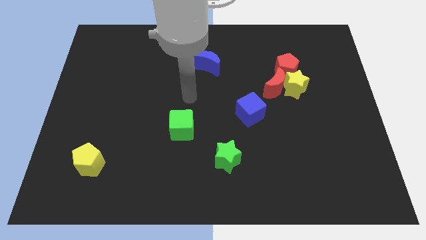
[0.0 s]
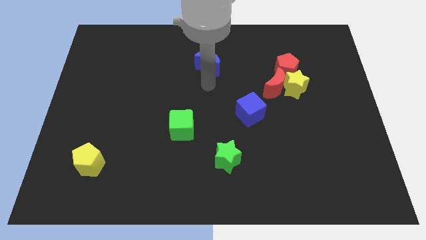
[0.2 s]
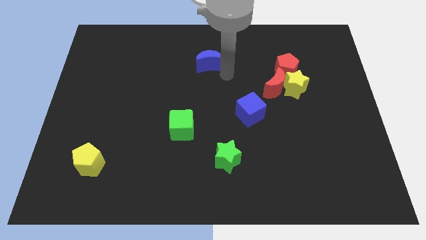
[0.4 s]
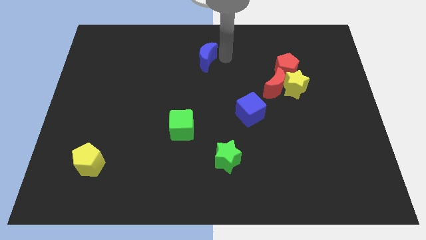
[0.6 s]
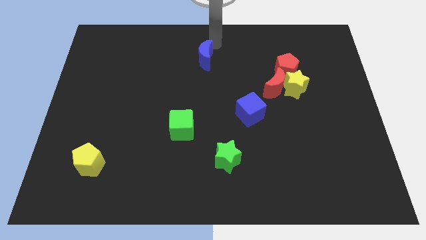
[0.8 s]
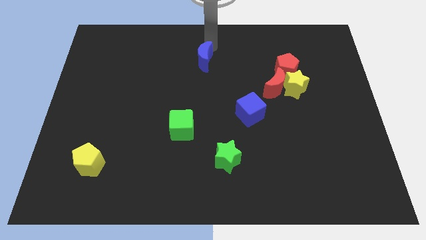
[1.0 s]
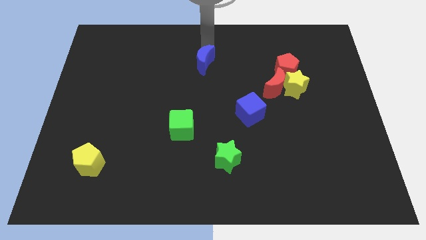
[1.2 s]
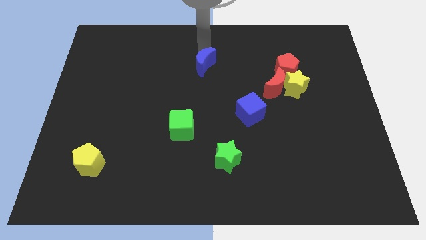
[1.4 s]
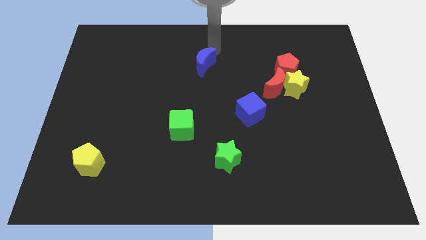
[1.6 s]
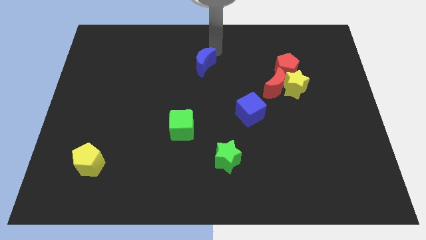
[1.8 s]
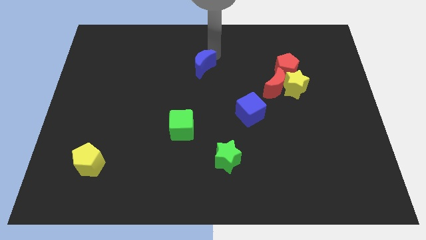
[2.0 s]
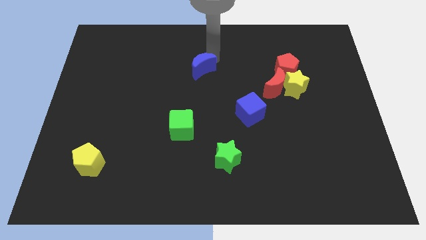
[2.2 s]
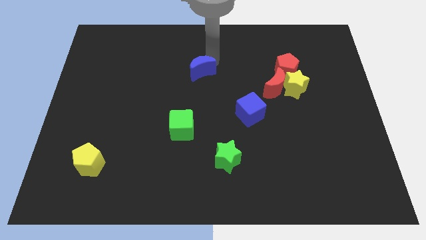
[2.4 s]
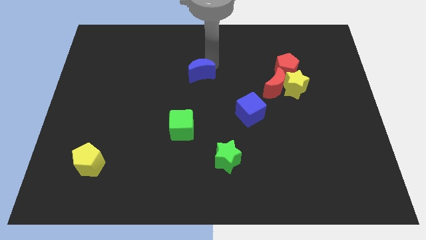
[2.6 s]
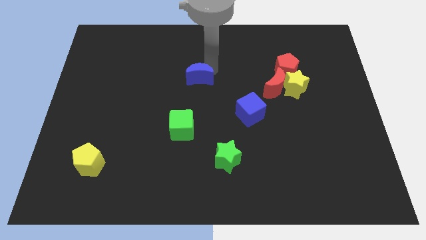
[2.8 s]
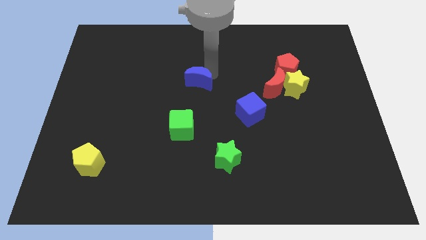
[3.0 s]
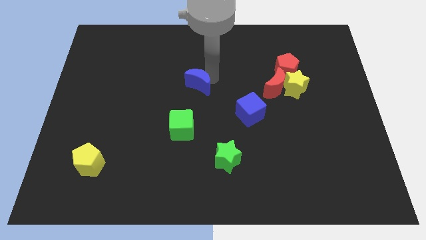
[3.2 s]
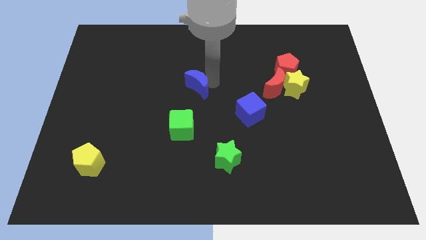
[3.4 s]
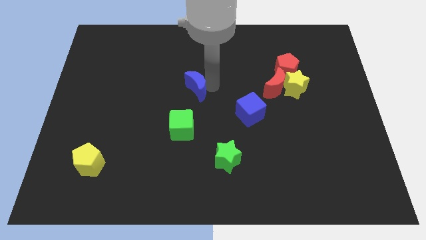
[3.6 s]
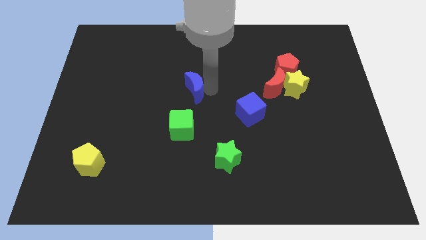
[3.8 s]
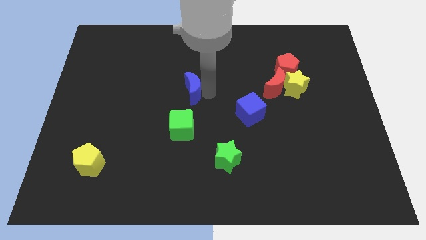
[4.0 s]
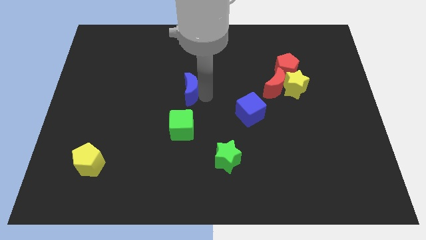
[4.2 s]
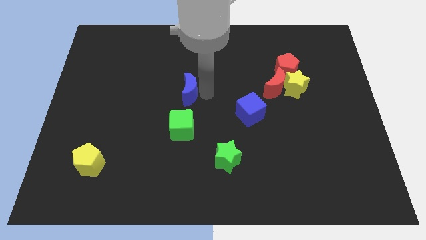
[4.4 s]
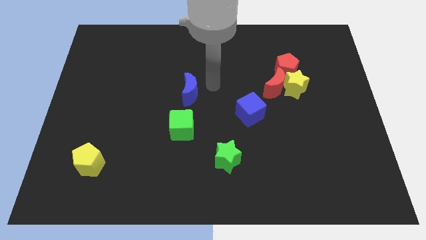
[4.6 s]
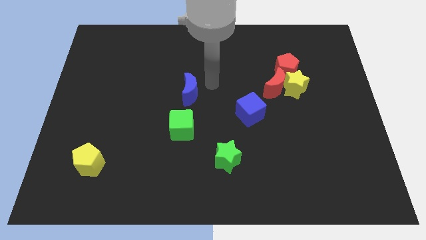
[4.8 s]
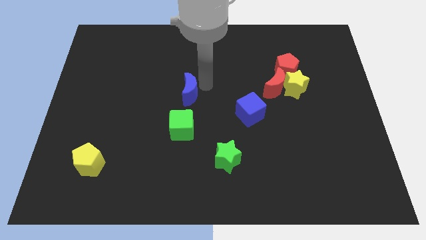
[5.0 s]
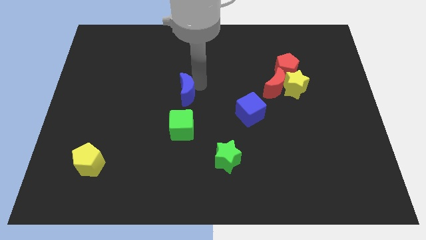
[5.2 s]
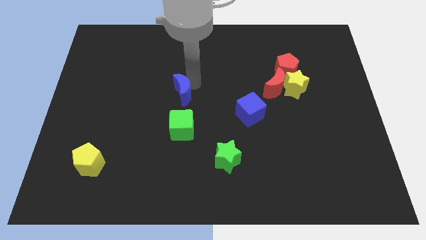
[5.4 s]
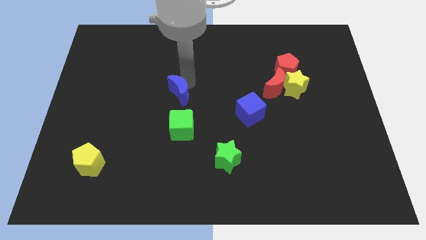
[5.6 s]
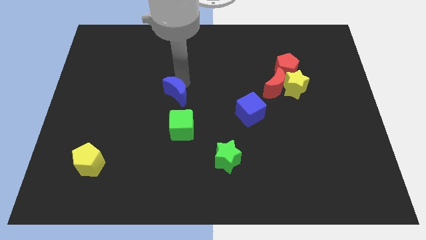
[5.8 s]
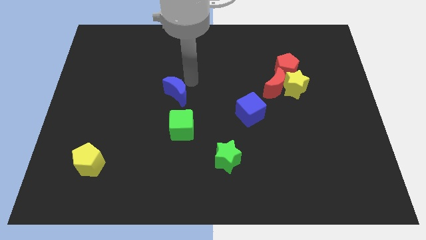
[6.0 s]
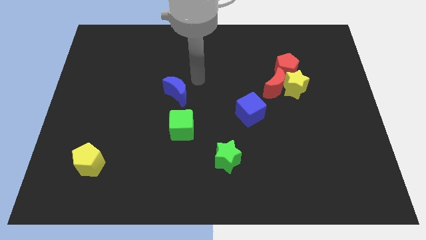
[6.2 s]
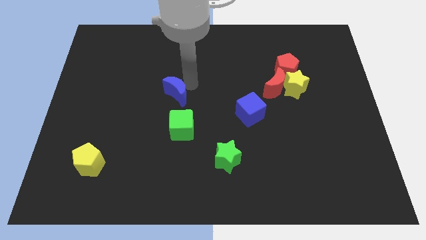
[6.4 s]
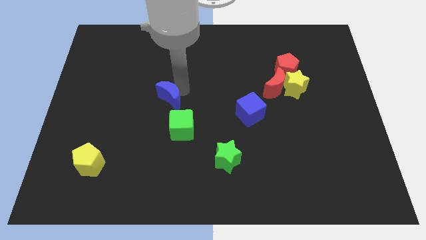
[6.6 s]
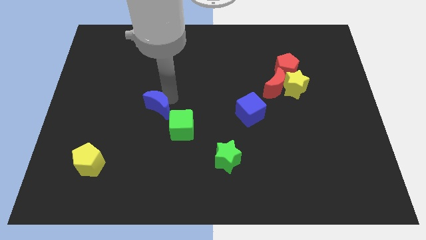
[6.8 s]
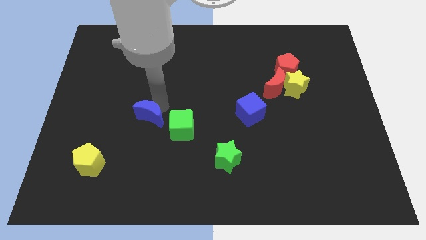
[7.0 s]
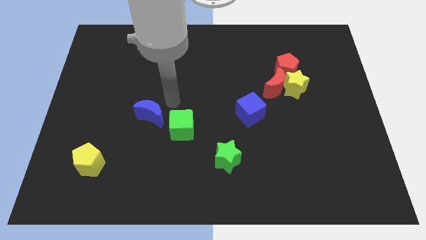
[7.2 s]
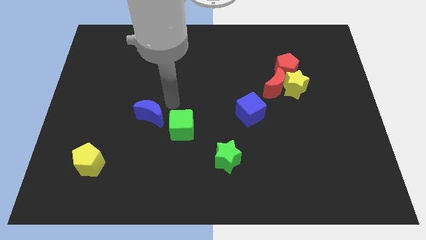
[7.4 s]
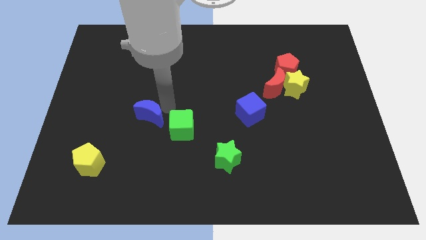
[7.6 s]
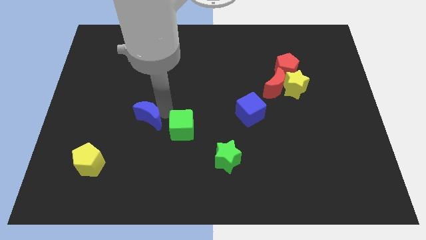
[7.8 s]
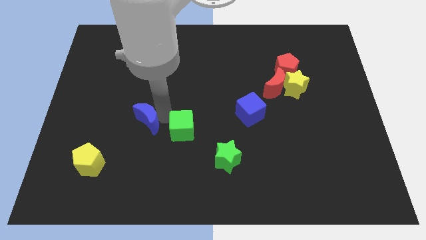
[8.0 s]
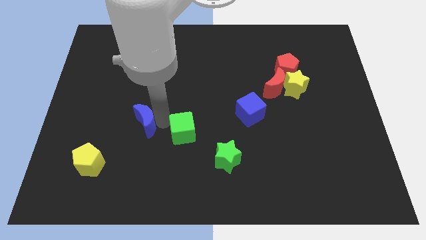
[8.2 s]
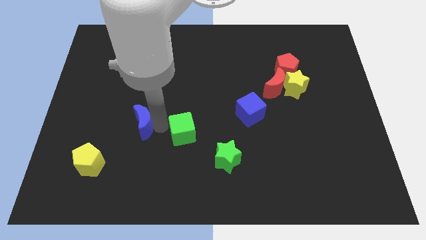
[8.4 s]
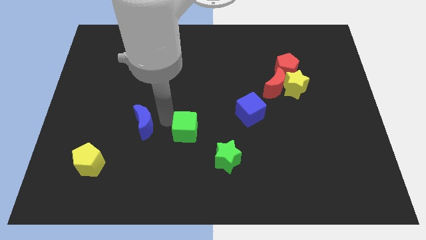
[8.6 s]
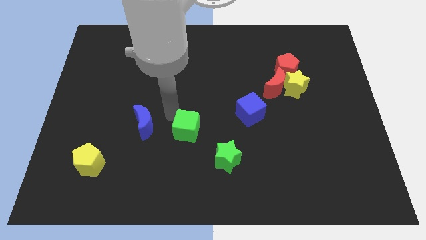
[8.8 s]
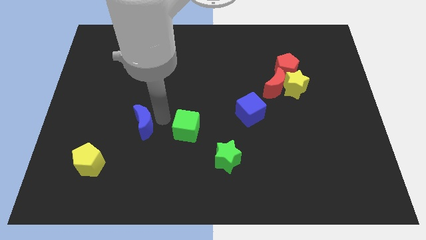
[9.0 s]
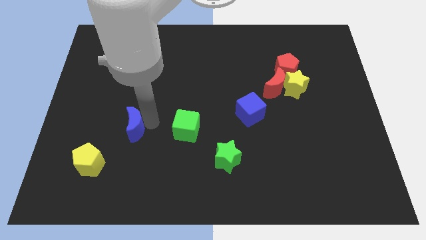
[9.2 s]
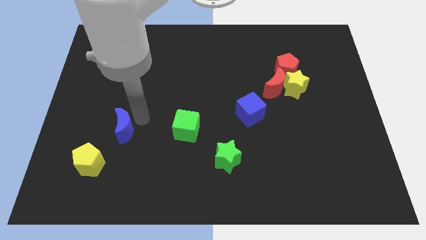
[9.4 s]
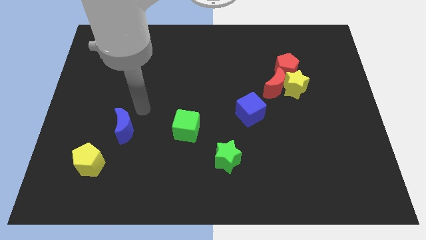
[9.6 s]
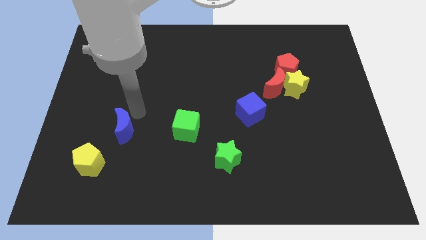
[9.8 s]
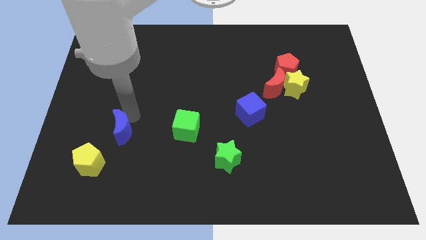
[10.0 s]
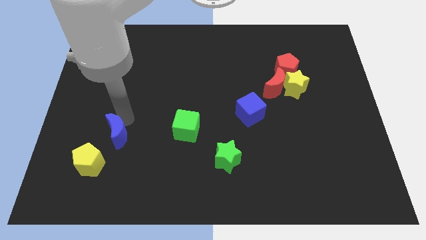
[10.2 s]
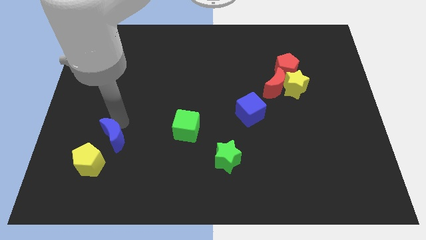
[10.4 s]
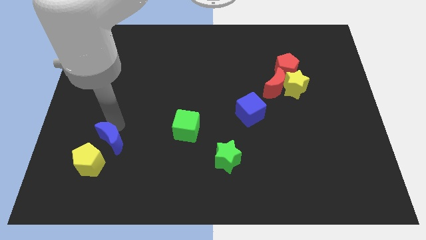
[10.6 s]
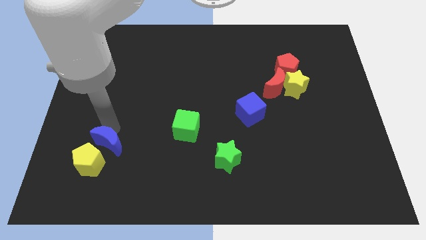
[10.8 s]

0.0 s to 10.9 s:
push the blue moon towards the yellow pentagon

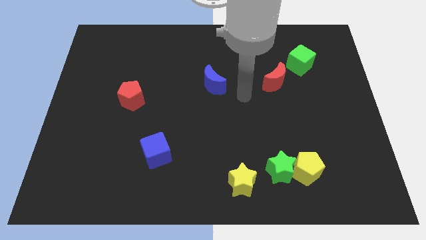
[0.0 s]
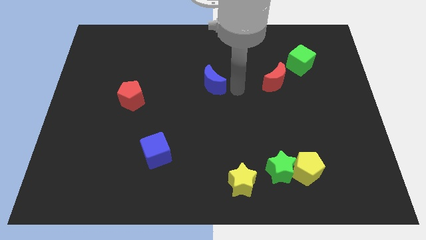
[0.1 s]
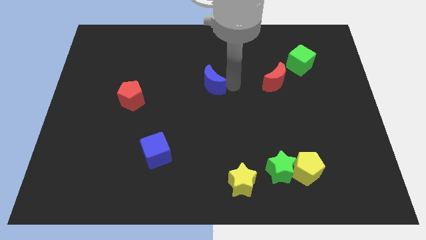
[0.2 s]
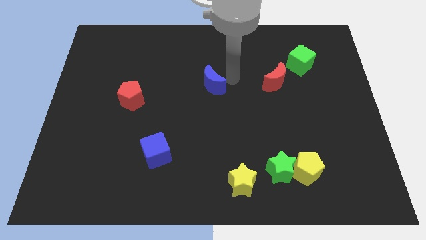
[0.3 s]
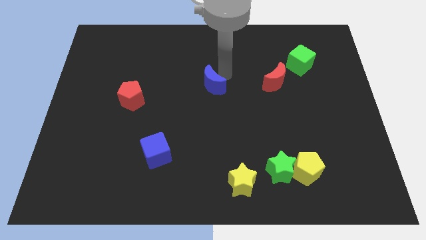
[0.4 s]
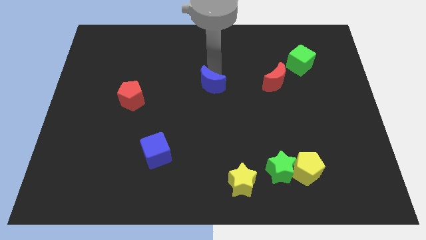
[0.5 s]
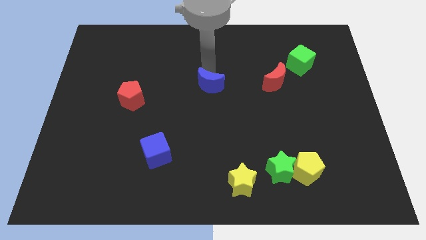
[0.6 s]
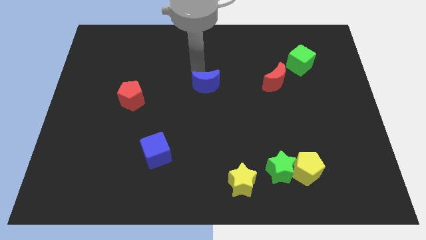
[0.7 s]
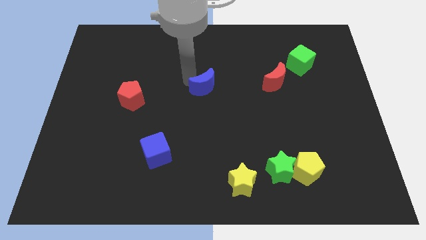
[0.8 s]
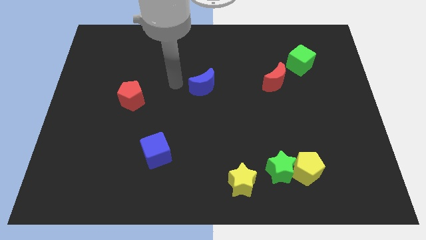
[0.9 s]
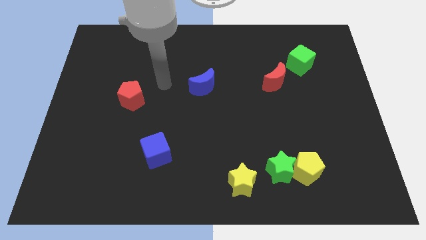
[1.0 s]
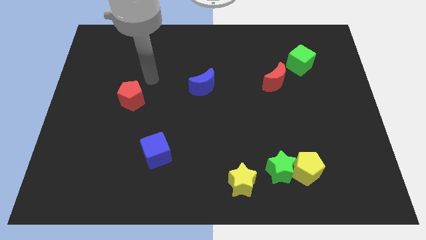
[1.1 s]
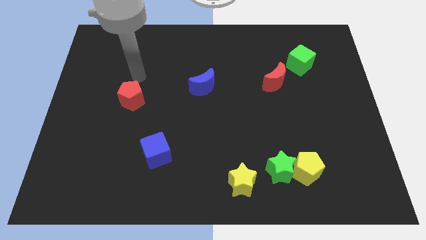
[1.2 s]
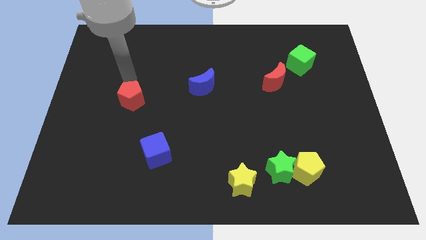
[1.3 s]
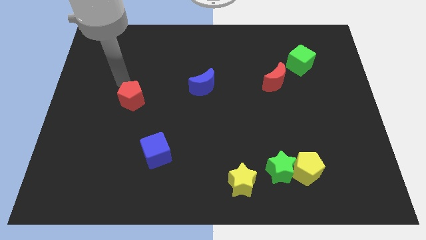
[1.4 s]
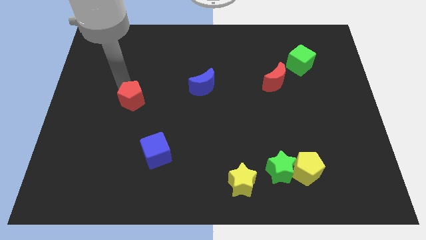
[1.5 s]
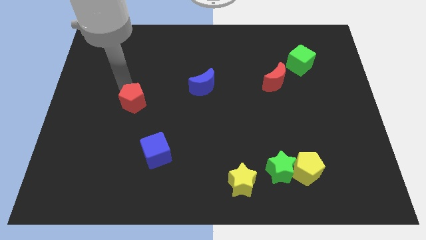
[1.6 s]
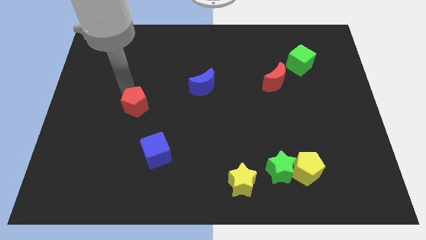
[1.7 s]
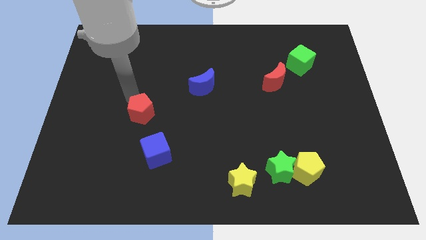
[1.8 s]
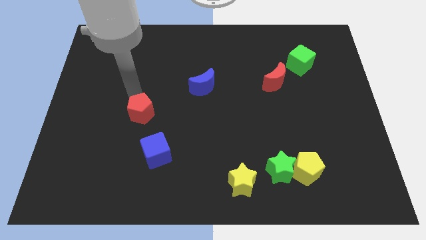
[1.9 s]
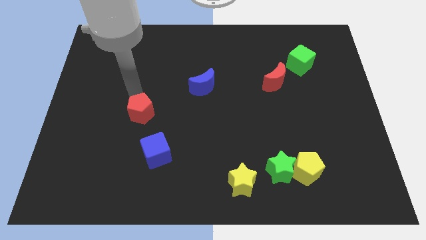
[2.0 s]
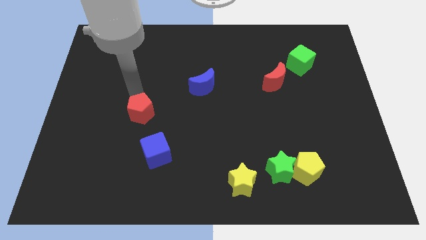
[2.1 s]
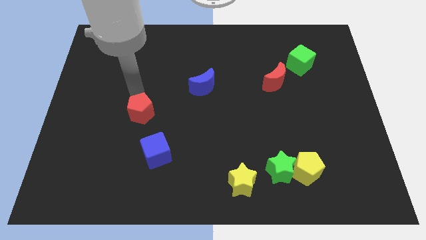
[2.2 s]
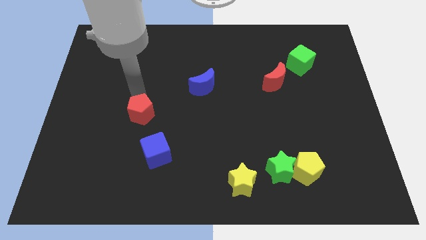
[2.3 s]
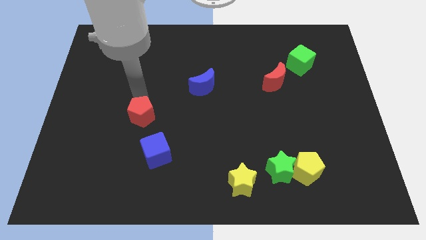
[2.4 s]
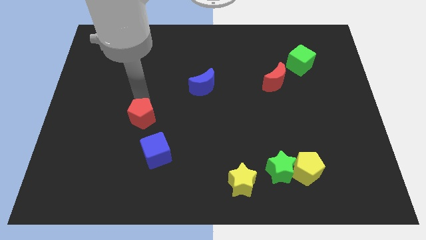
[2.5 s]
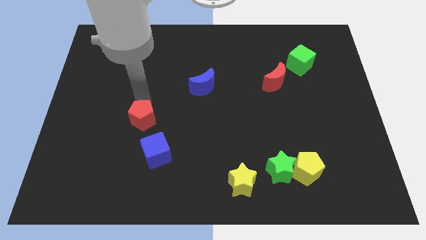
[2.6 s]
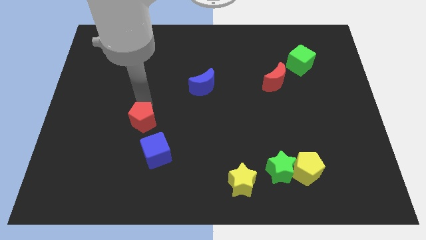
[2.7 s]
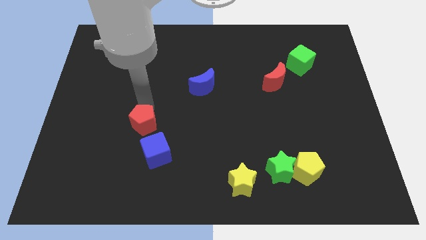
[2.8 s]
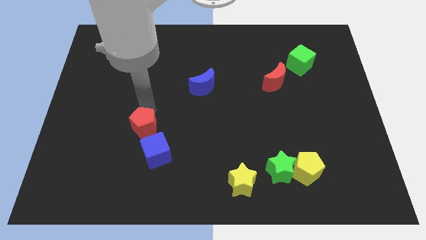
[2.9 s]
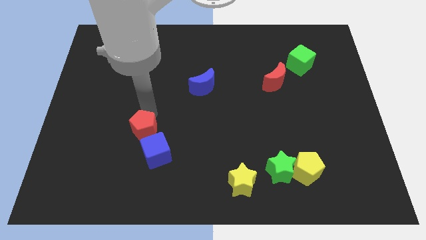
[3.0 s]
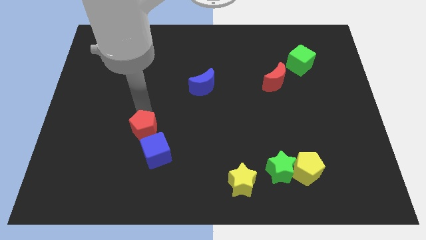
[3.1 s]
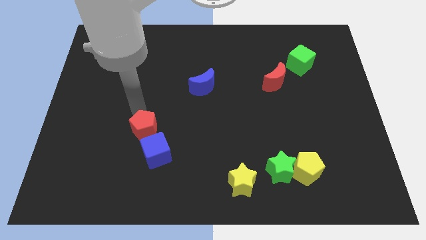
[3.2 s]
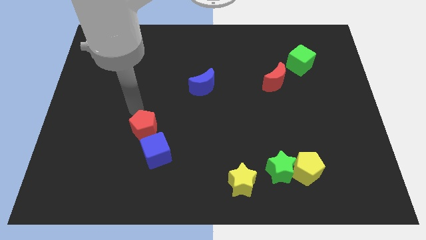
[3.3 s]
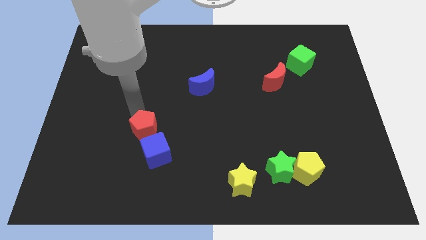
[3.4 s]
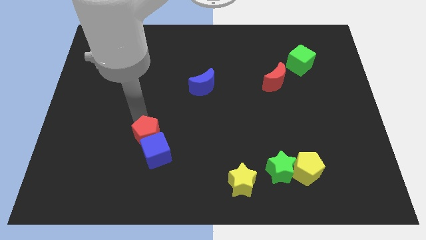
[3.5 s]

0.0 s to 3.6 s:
put the red pentagon towards the blue cube
